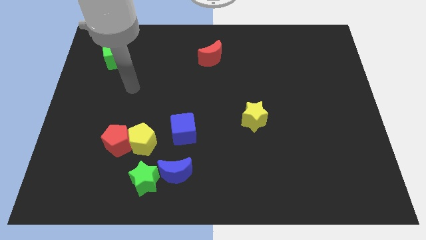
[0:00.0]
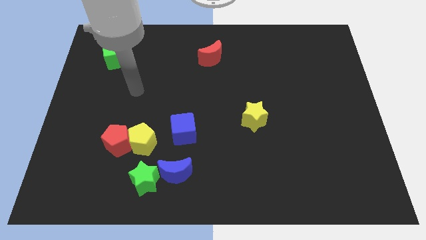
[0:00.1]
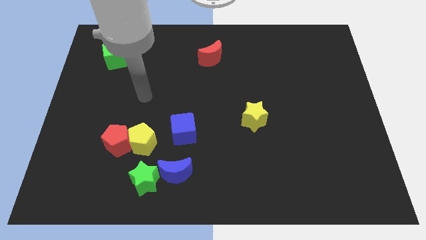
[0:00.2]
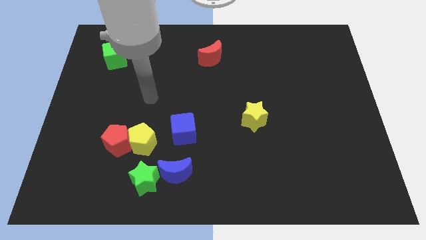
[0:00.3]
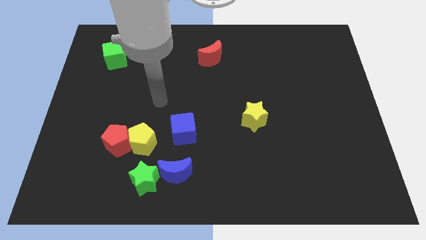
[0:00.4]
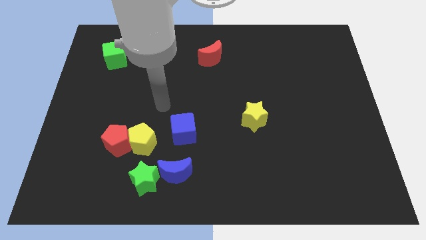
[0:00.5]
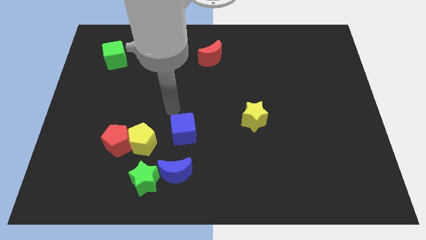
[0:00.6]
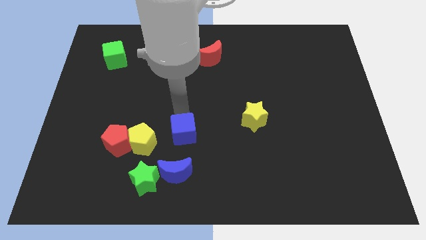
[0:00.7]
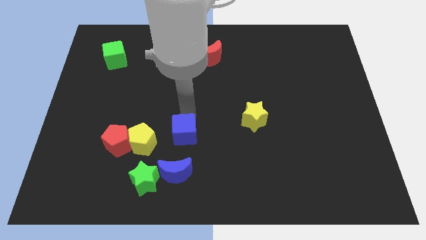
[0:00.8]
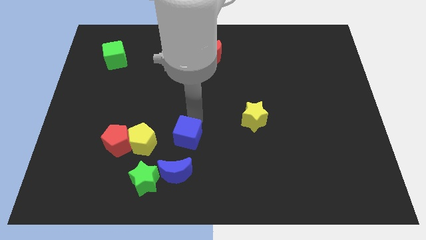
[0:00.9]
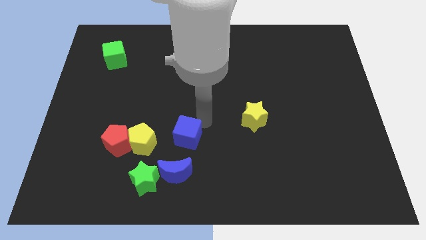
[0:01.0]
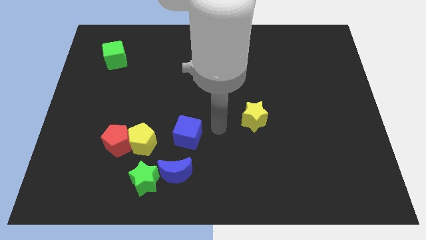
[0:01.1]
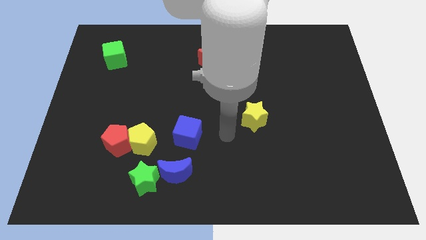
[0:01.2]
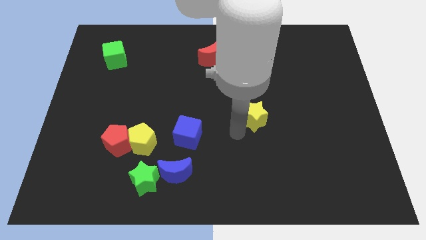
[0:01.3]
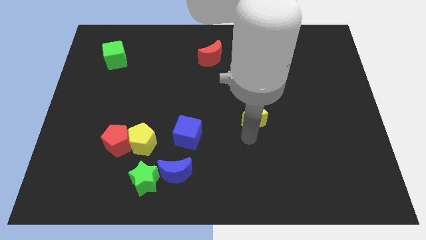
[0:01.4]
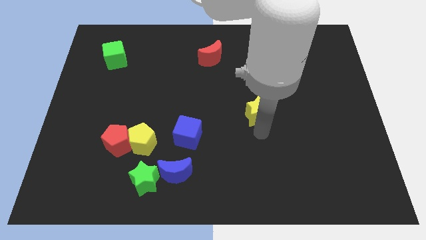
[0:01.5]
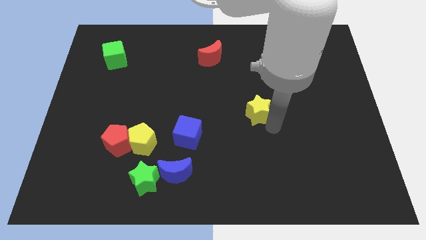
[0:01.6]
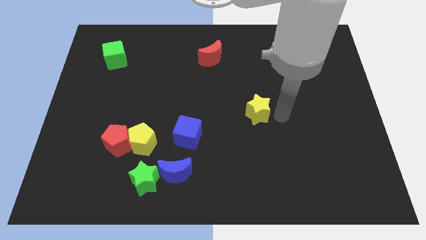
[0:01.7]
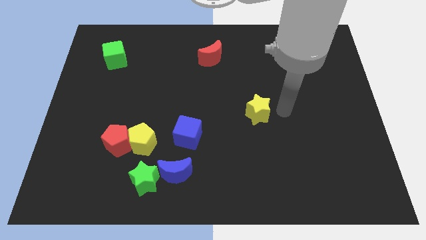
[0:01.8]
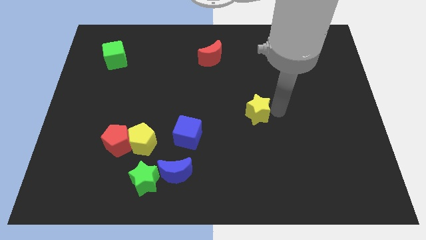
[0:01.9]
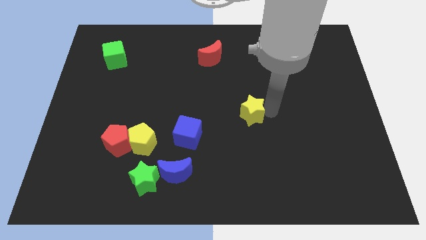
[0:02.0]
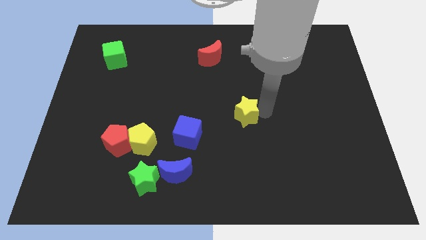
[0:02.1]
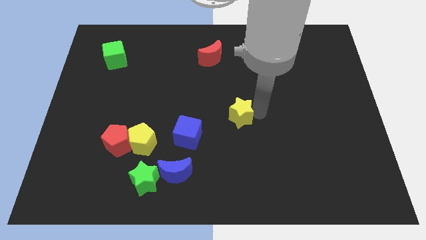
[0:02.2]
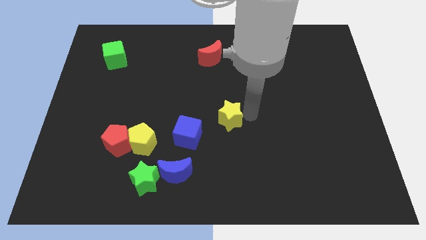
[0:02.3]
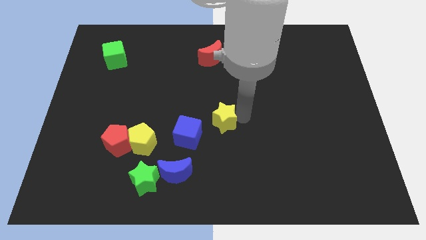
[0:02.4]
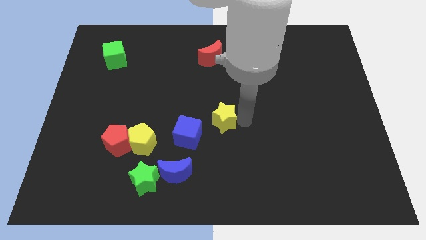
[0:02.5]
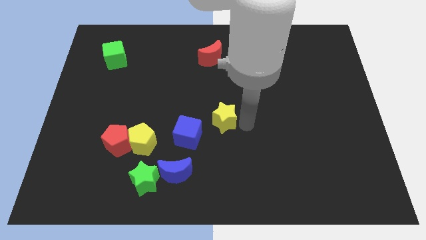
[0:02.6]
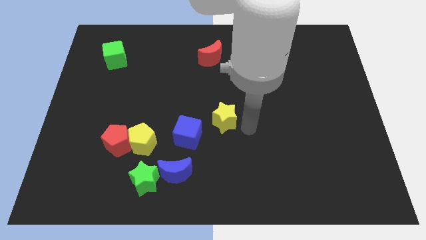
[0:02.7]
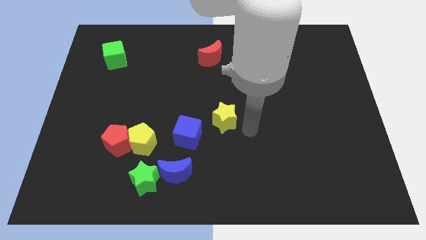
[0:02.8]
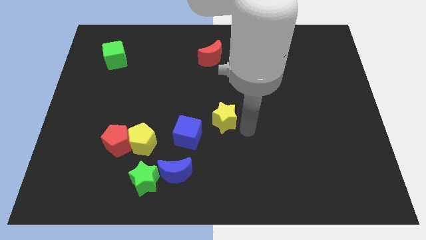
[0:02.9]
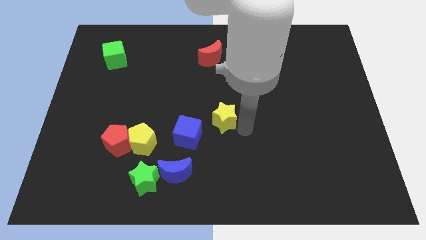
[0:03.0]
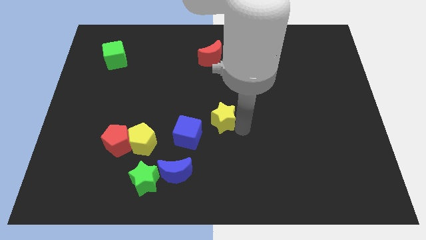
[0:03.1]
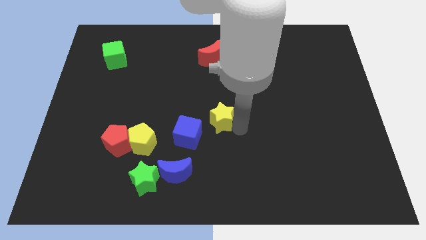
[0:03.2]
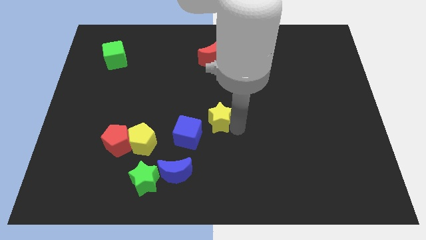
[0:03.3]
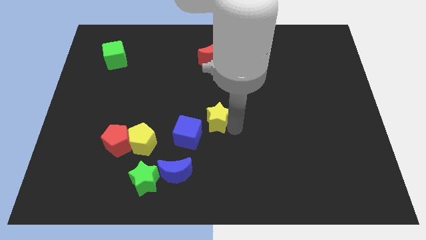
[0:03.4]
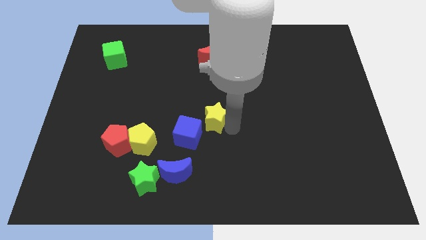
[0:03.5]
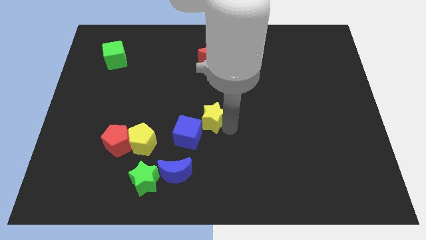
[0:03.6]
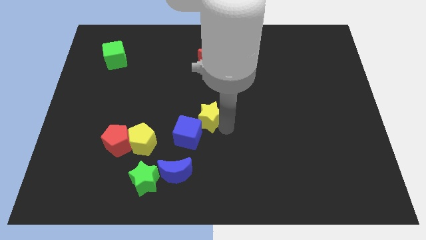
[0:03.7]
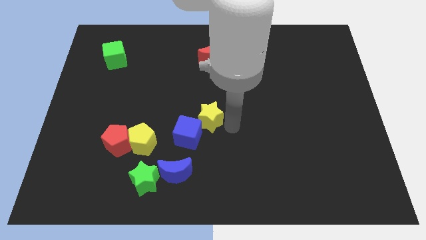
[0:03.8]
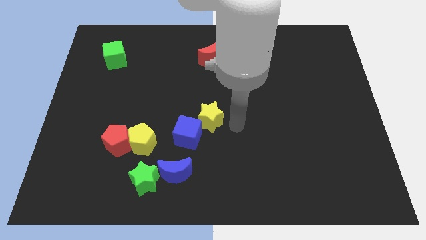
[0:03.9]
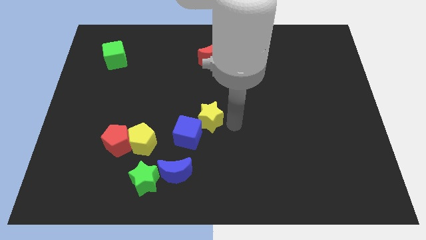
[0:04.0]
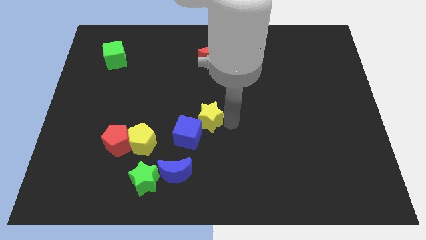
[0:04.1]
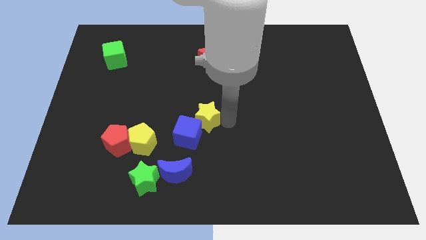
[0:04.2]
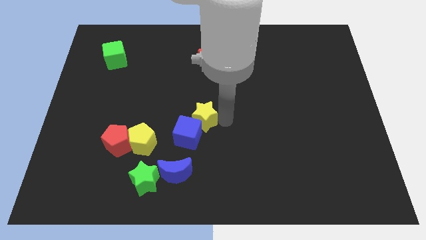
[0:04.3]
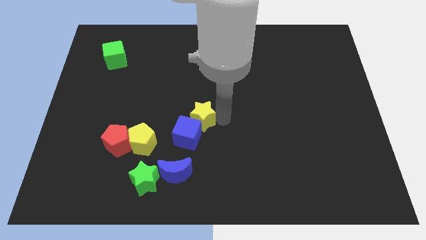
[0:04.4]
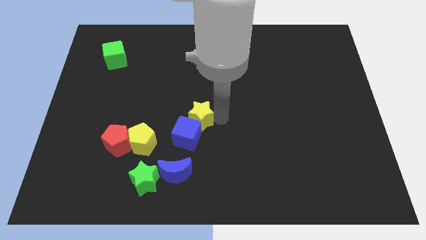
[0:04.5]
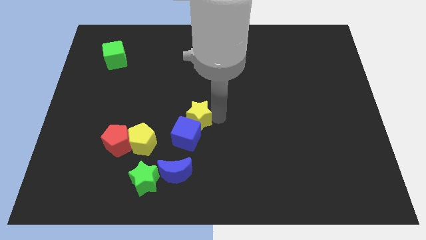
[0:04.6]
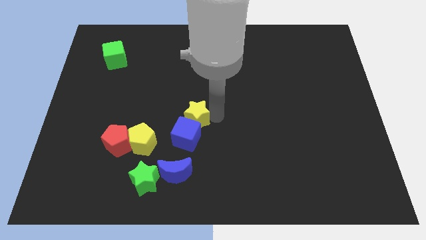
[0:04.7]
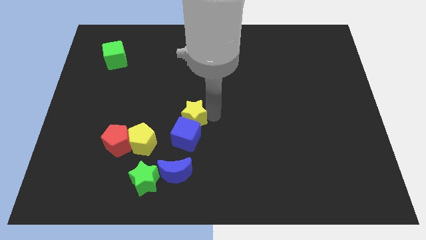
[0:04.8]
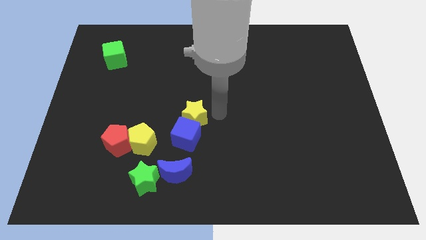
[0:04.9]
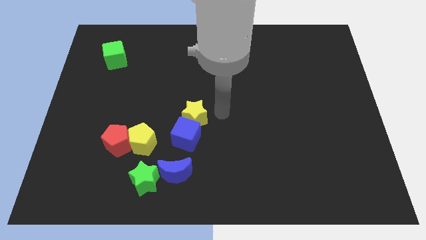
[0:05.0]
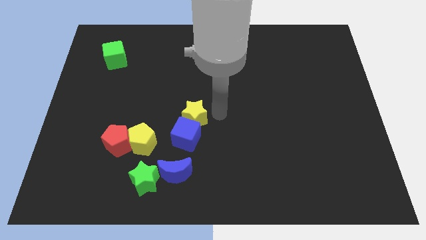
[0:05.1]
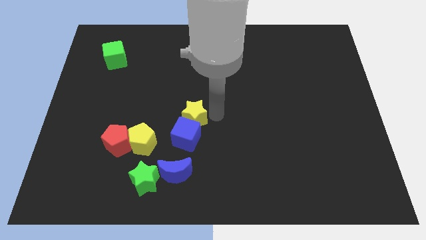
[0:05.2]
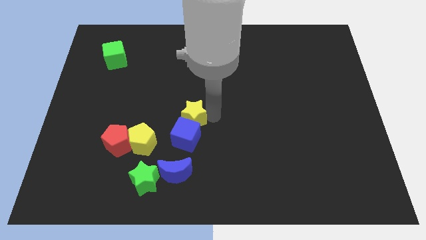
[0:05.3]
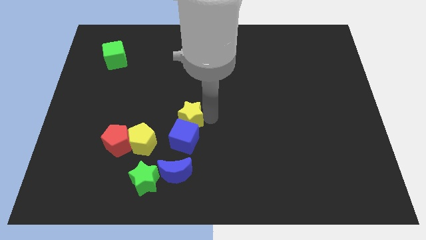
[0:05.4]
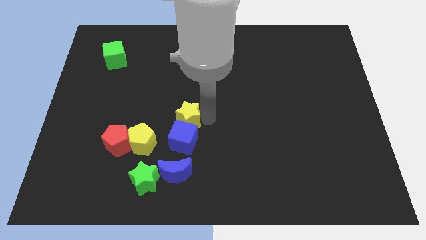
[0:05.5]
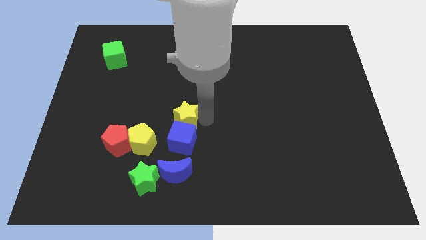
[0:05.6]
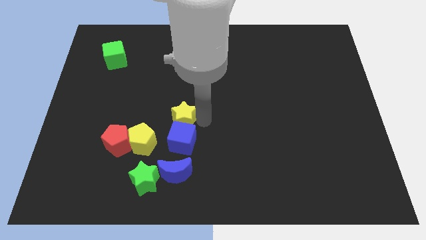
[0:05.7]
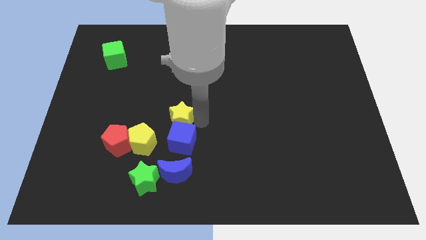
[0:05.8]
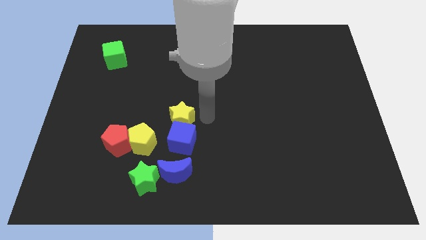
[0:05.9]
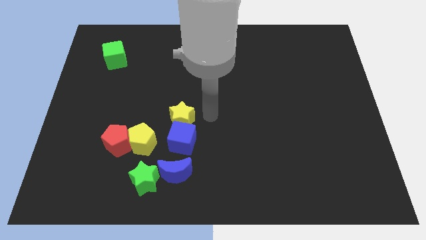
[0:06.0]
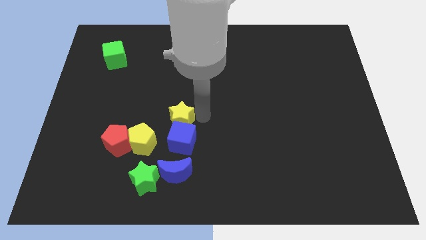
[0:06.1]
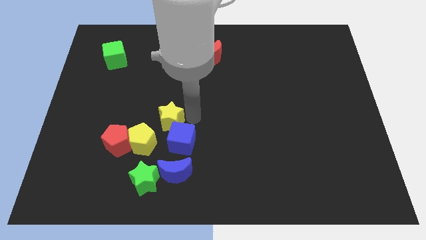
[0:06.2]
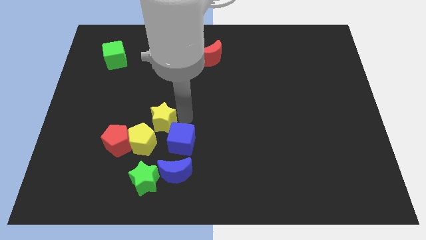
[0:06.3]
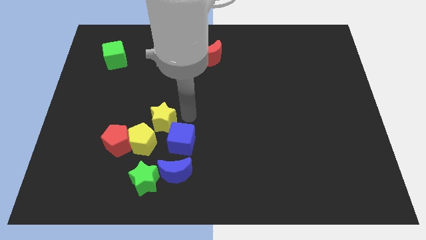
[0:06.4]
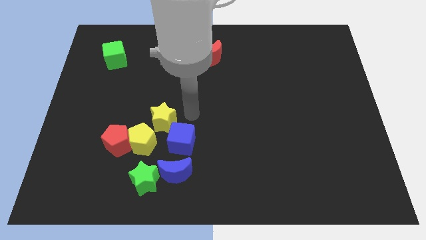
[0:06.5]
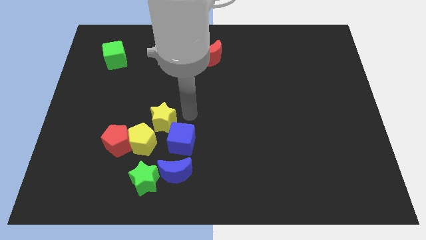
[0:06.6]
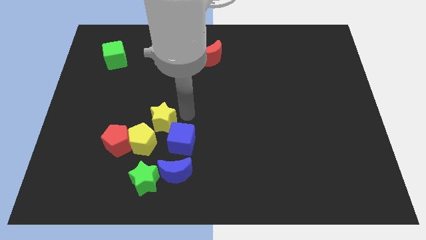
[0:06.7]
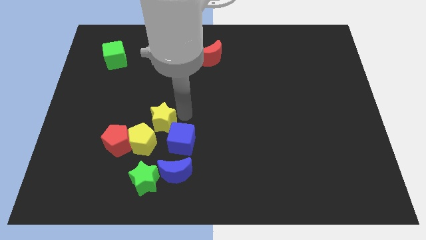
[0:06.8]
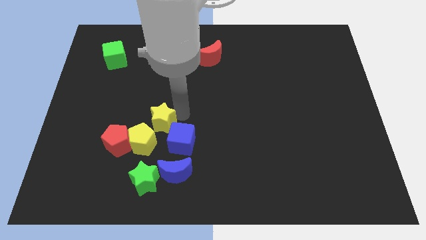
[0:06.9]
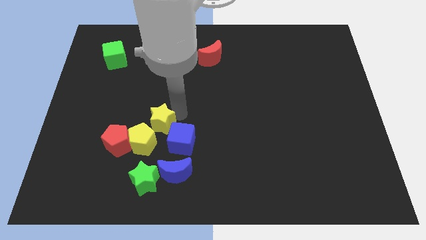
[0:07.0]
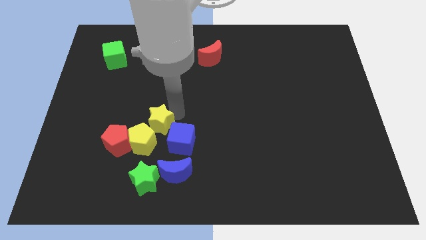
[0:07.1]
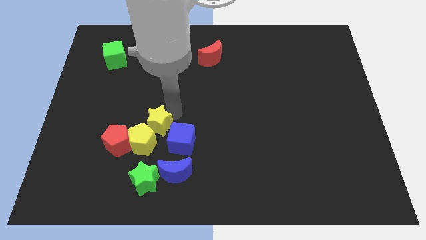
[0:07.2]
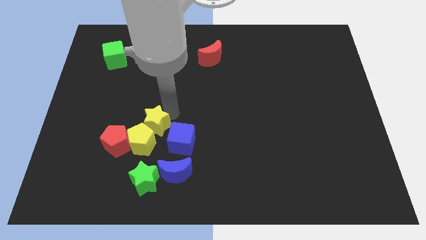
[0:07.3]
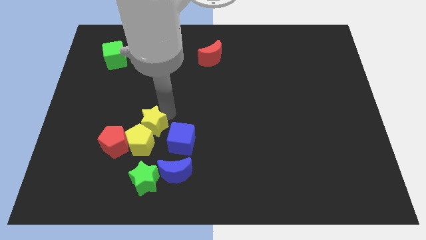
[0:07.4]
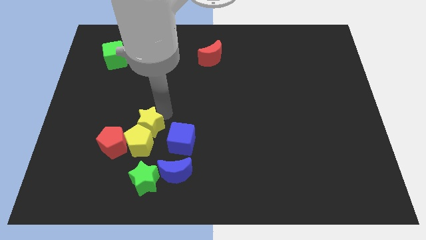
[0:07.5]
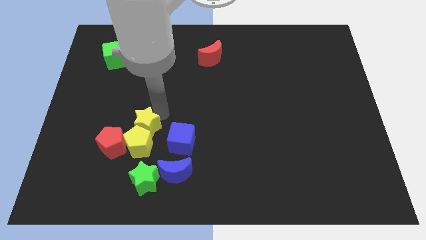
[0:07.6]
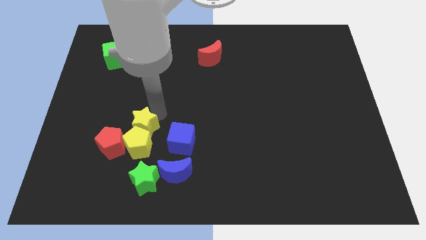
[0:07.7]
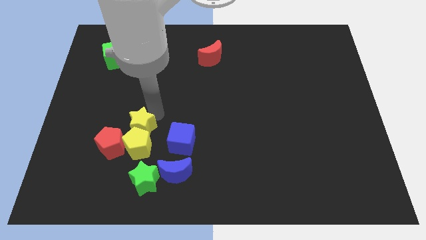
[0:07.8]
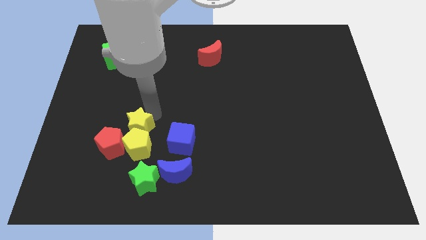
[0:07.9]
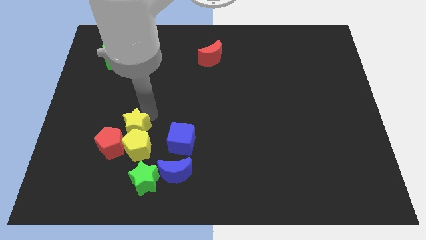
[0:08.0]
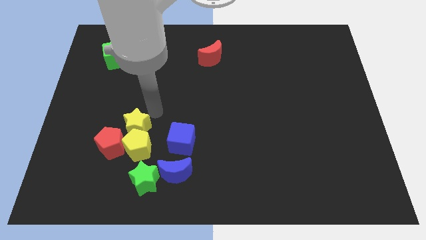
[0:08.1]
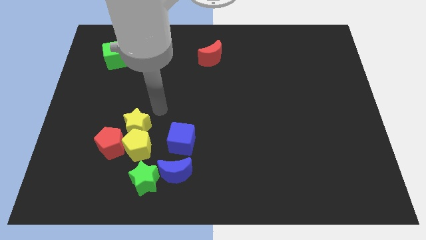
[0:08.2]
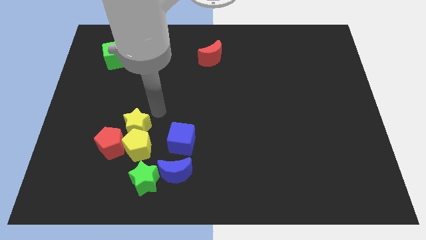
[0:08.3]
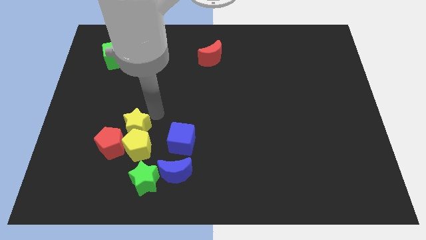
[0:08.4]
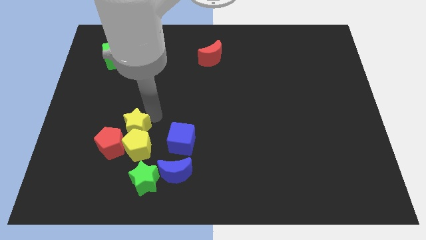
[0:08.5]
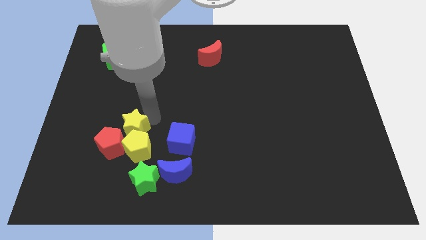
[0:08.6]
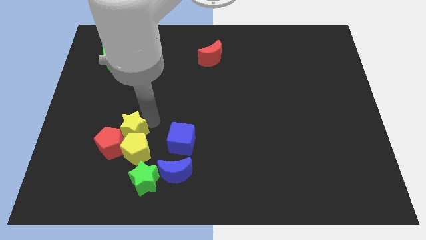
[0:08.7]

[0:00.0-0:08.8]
put the yellow star close to the red pentagon

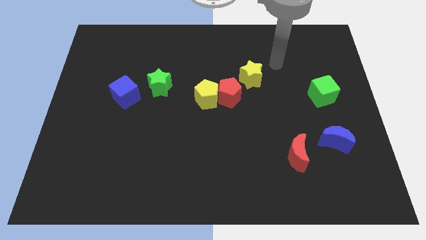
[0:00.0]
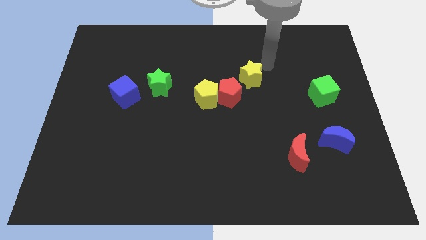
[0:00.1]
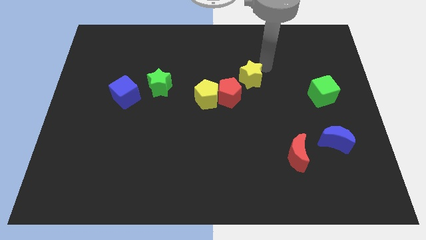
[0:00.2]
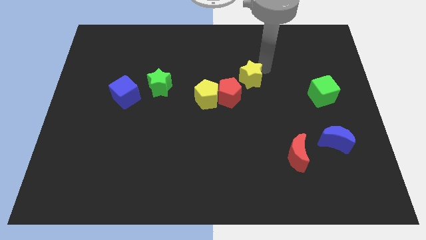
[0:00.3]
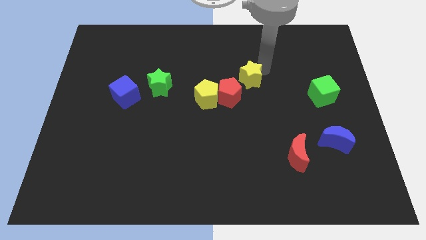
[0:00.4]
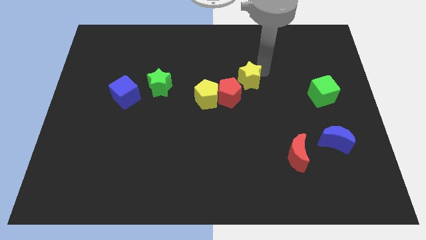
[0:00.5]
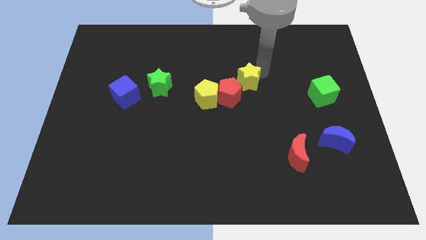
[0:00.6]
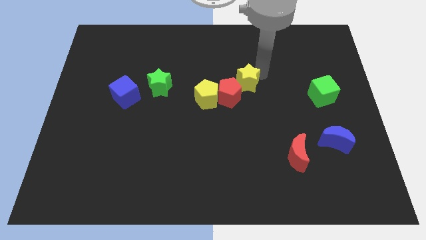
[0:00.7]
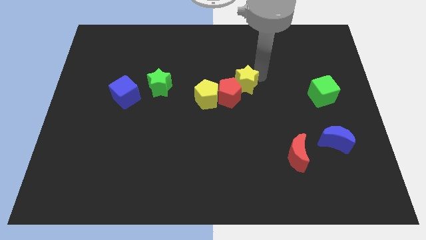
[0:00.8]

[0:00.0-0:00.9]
slide the yellow star next to the red pentagon
